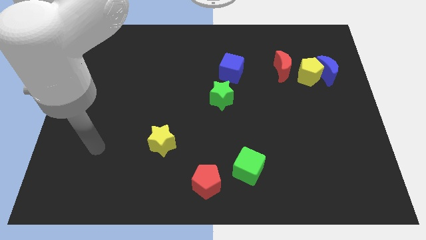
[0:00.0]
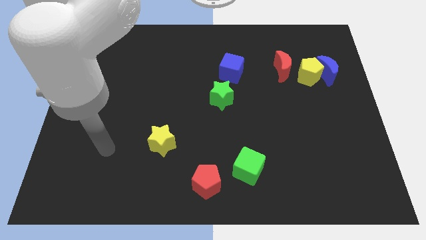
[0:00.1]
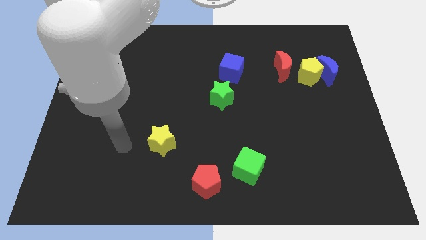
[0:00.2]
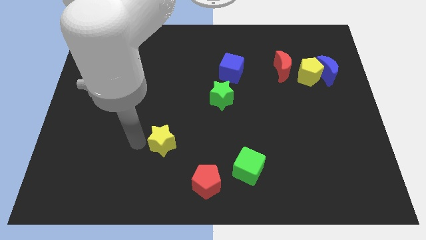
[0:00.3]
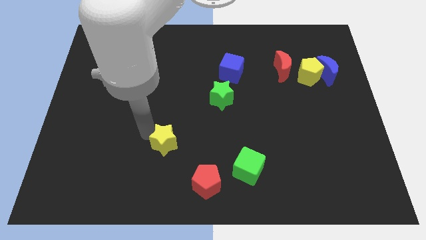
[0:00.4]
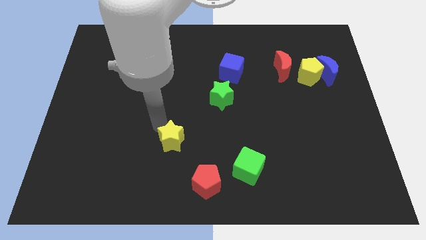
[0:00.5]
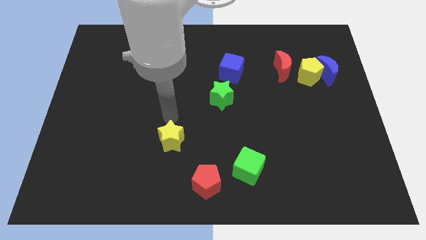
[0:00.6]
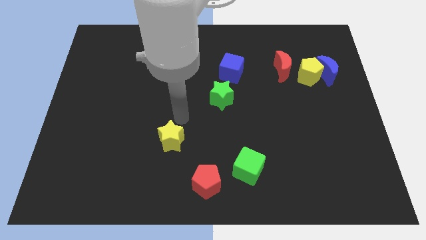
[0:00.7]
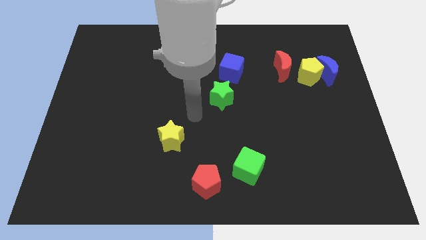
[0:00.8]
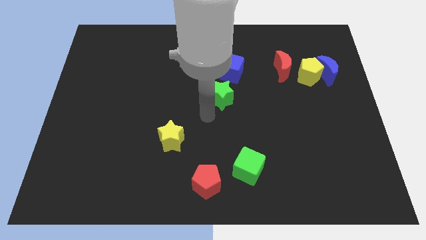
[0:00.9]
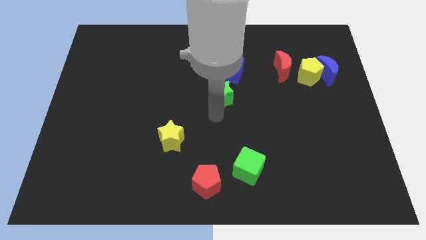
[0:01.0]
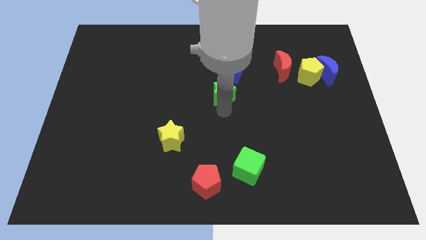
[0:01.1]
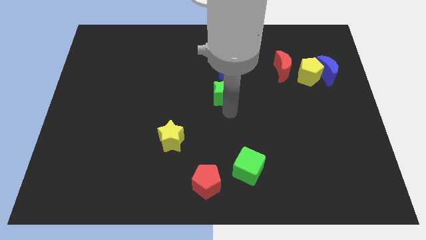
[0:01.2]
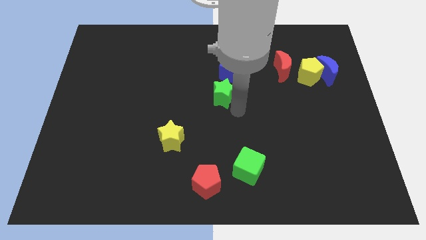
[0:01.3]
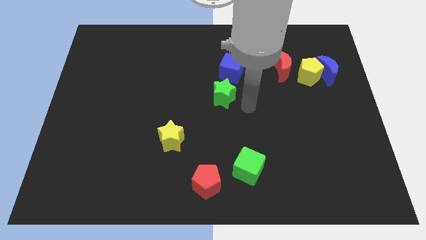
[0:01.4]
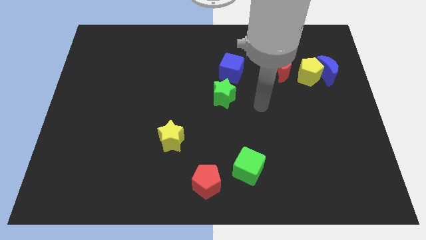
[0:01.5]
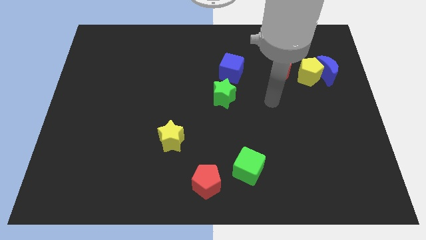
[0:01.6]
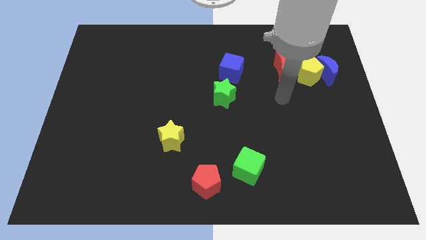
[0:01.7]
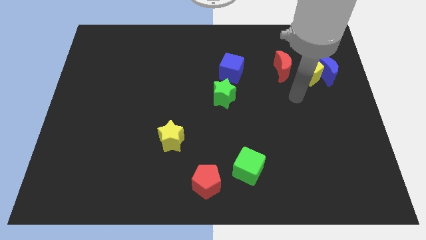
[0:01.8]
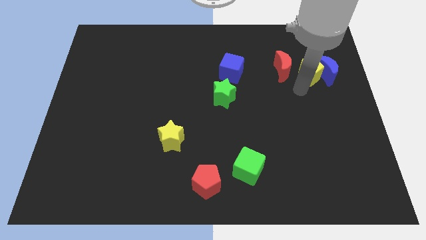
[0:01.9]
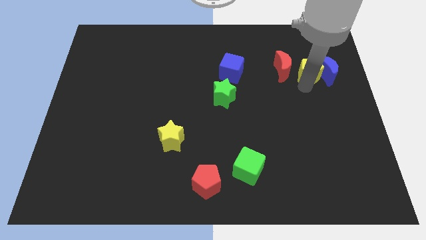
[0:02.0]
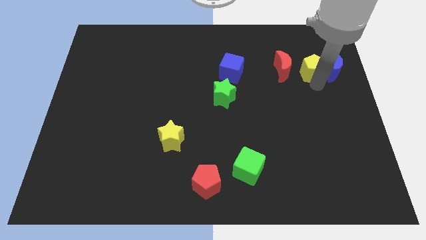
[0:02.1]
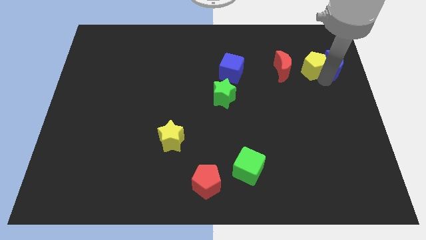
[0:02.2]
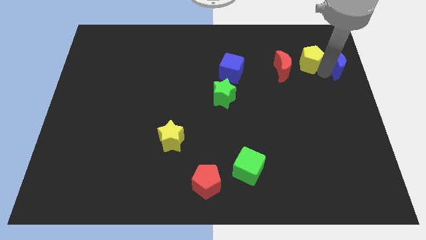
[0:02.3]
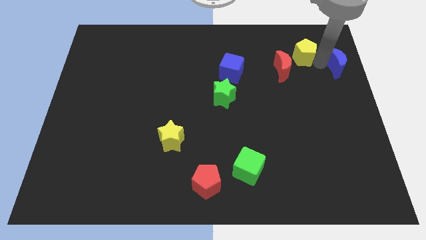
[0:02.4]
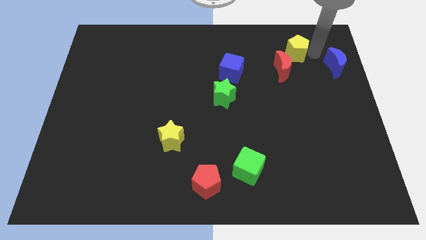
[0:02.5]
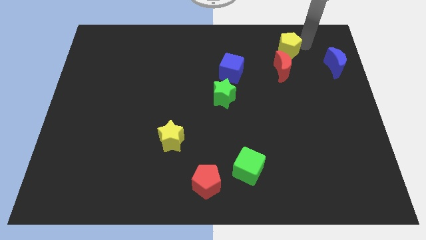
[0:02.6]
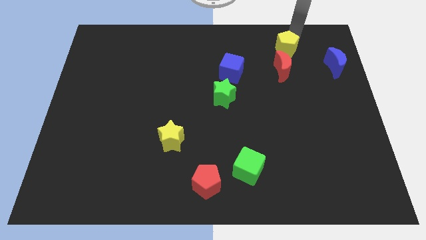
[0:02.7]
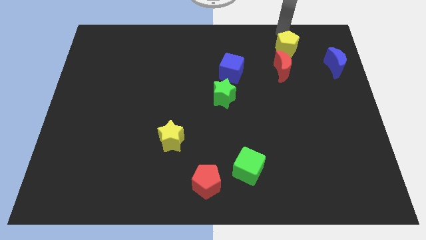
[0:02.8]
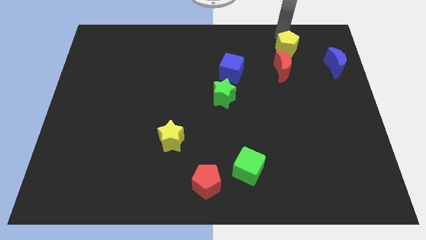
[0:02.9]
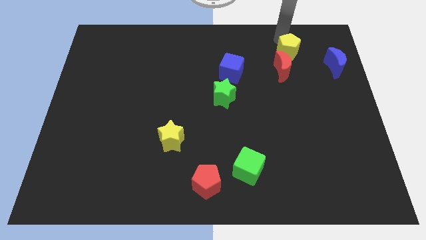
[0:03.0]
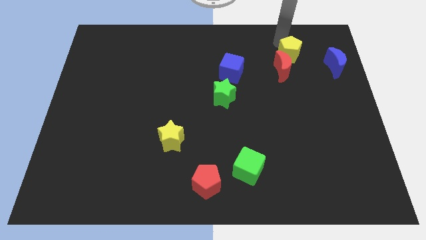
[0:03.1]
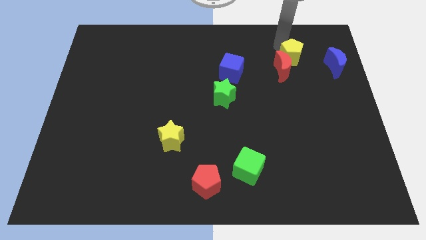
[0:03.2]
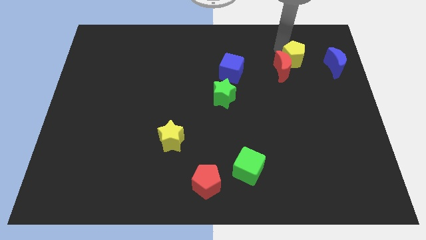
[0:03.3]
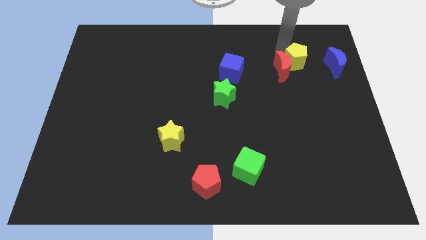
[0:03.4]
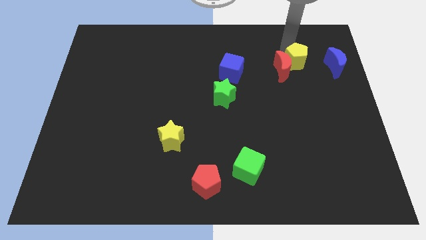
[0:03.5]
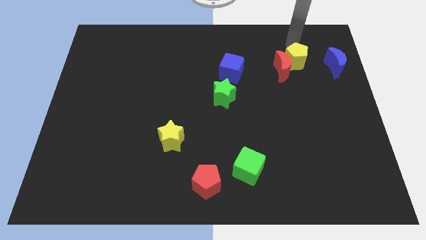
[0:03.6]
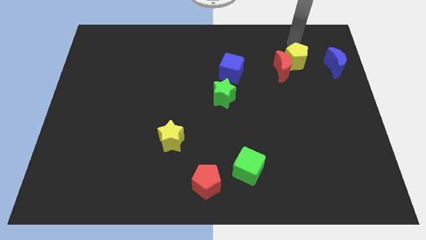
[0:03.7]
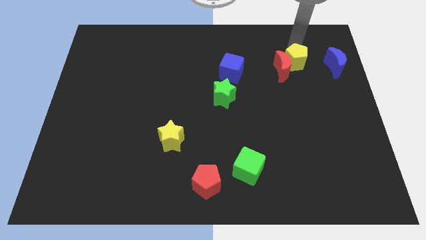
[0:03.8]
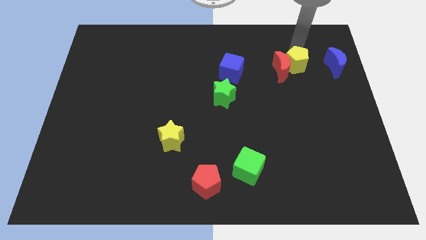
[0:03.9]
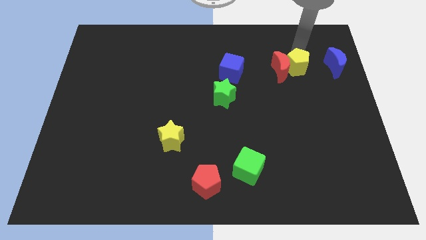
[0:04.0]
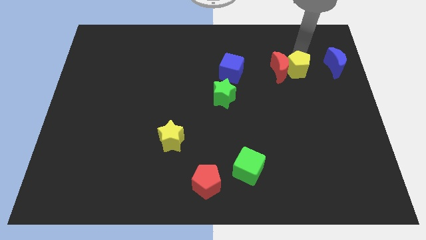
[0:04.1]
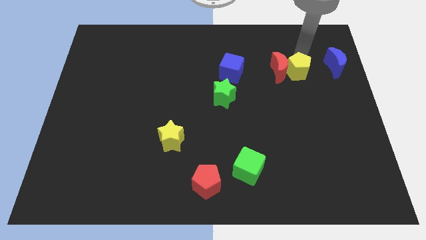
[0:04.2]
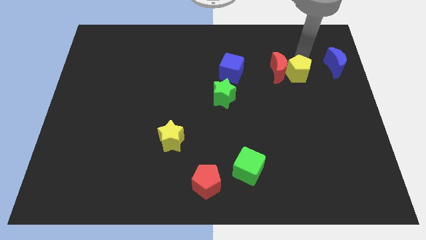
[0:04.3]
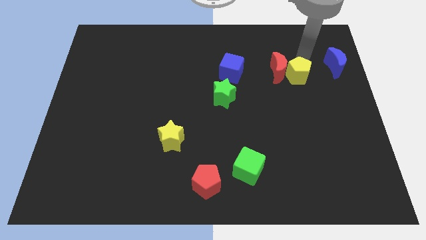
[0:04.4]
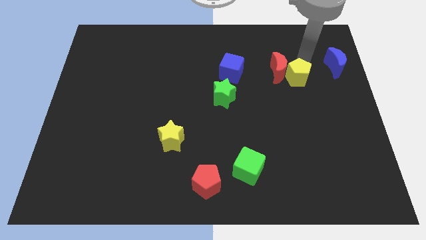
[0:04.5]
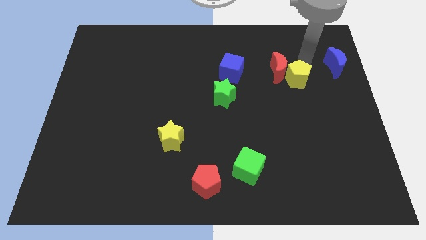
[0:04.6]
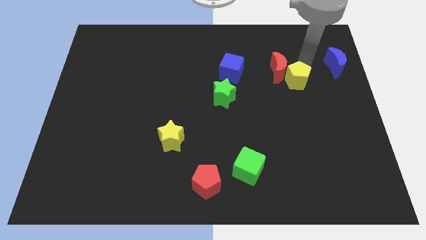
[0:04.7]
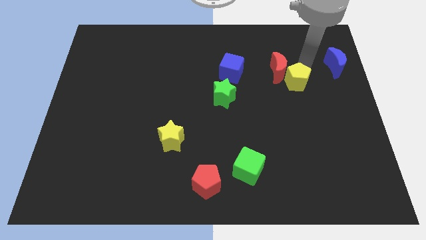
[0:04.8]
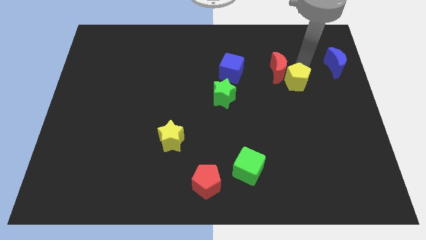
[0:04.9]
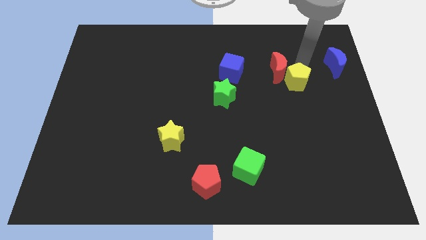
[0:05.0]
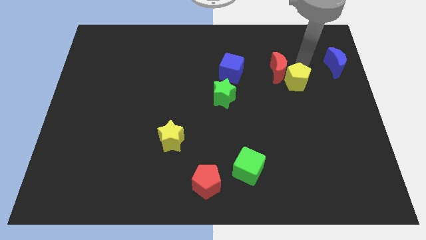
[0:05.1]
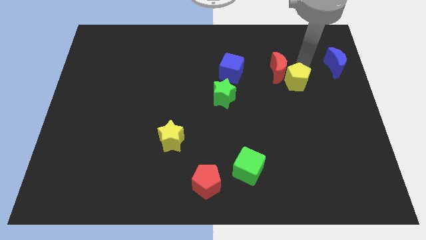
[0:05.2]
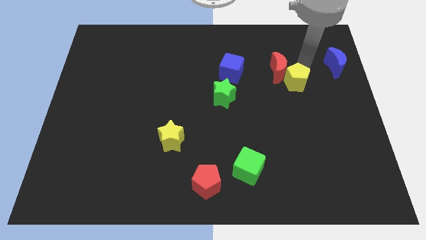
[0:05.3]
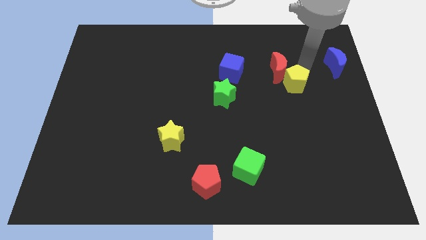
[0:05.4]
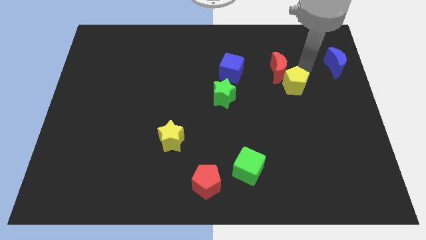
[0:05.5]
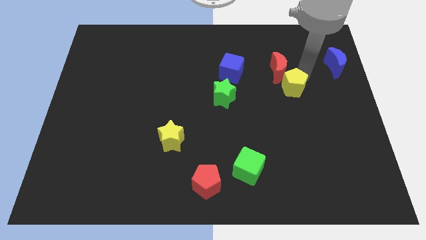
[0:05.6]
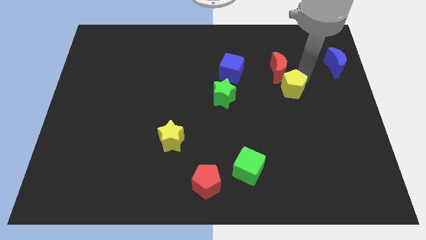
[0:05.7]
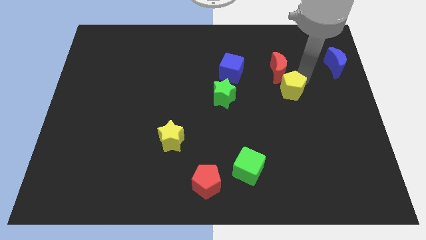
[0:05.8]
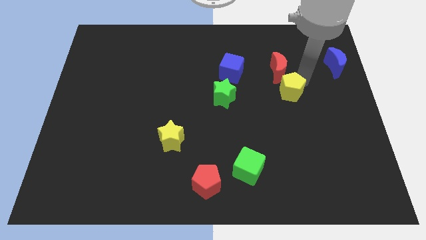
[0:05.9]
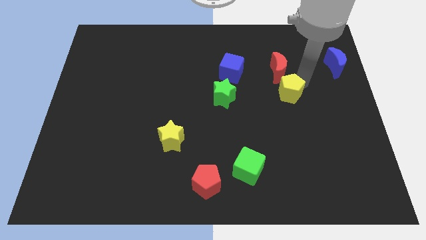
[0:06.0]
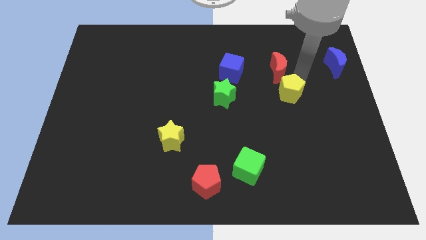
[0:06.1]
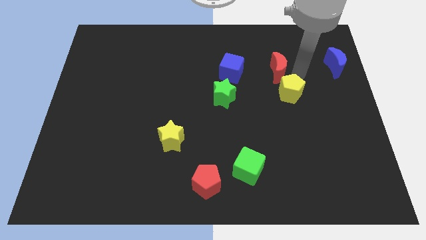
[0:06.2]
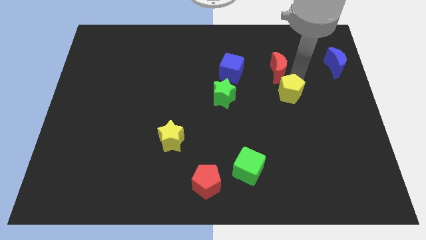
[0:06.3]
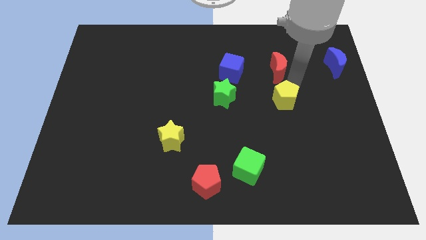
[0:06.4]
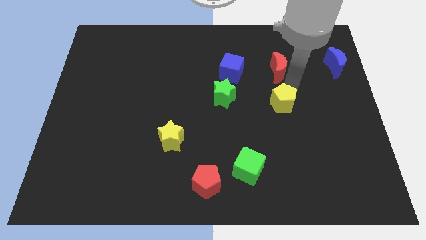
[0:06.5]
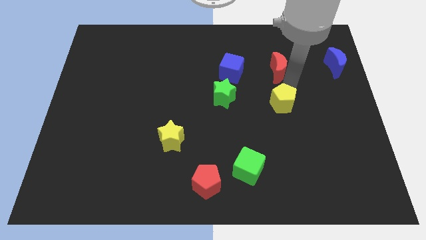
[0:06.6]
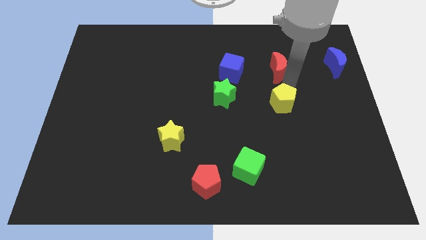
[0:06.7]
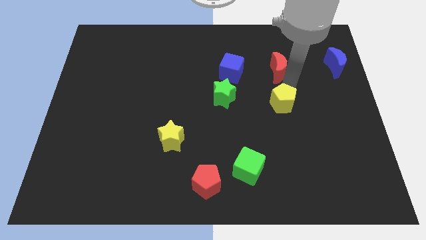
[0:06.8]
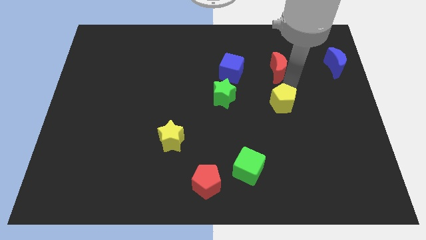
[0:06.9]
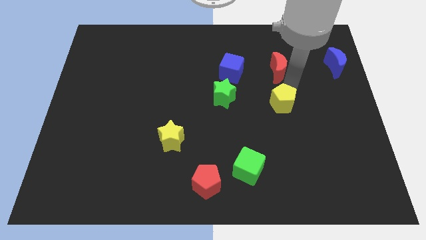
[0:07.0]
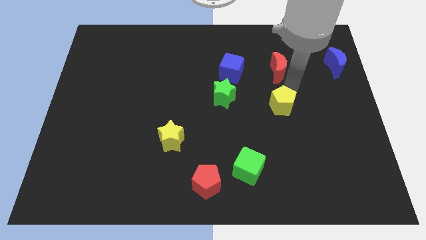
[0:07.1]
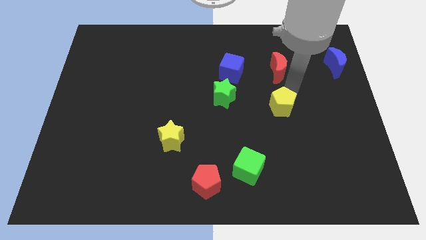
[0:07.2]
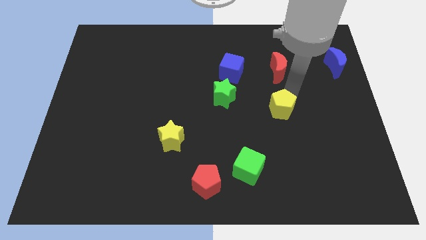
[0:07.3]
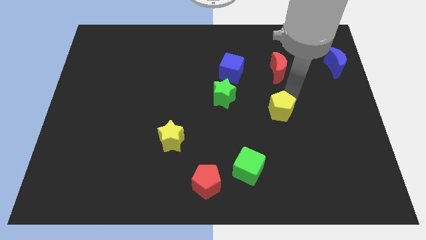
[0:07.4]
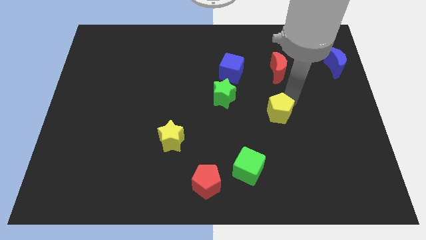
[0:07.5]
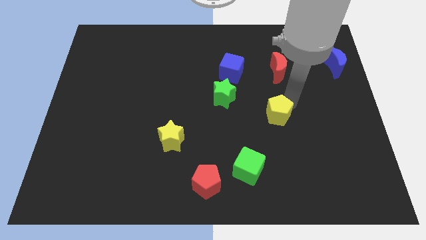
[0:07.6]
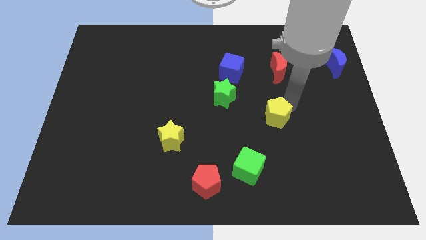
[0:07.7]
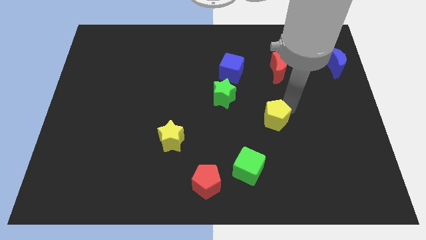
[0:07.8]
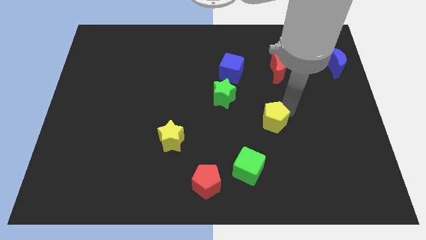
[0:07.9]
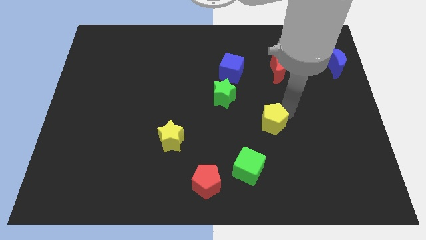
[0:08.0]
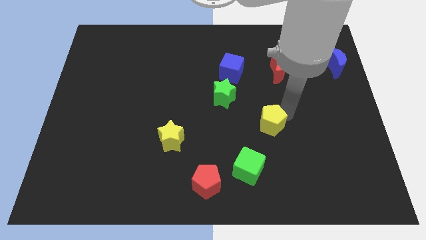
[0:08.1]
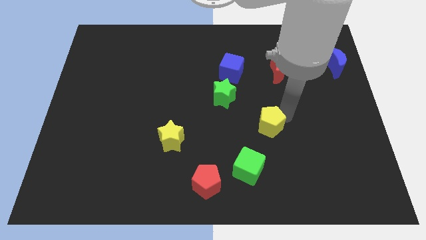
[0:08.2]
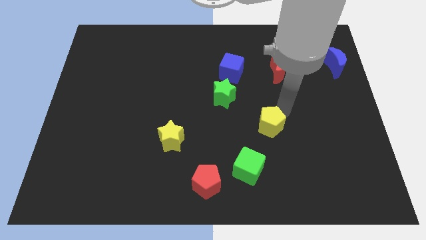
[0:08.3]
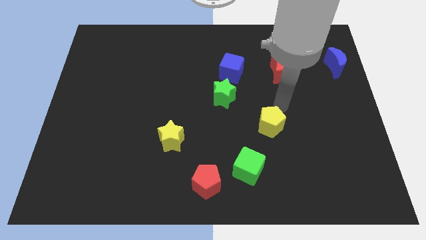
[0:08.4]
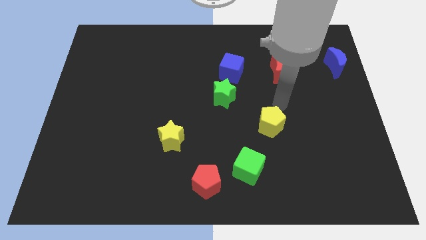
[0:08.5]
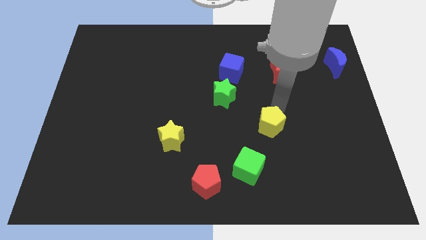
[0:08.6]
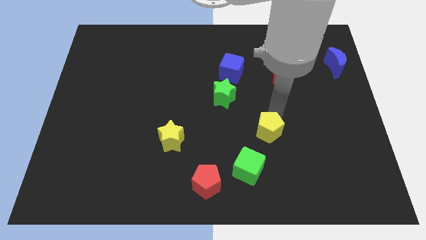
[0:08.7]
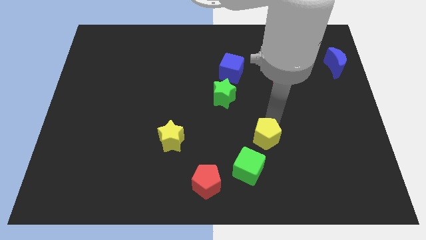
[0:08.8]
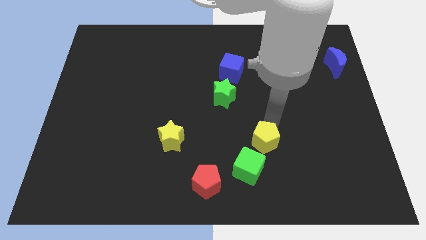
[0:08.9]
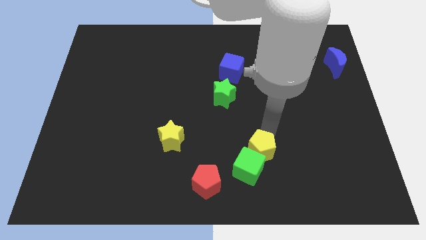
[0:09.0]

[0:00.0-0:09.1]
put the yellow pentagon close to the green cube
